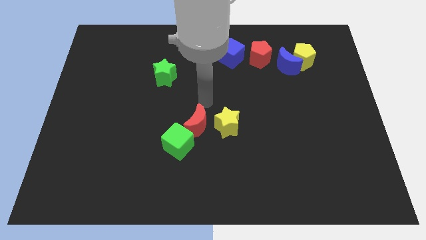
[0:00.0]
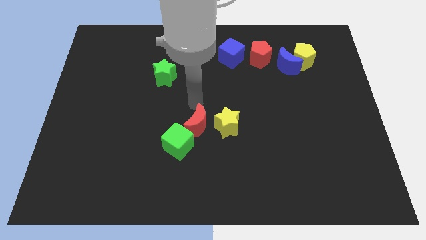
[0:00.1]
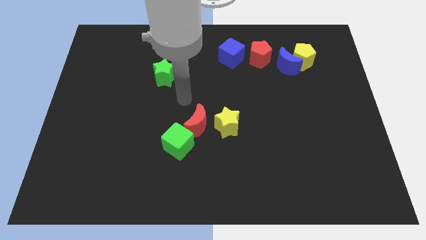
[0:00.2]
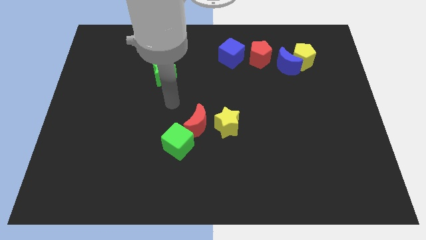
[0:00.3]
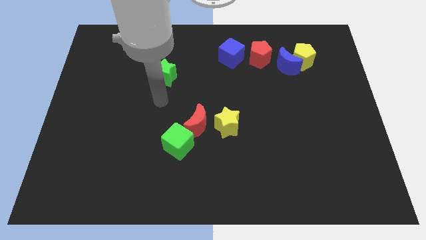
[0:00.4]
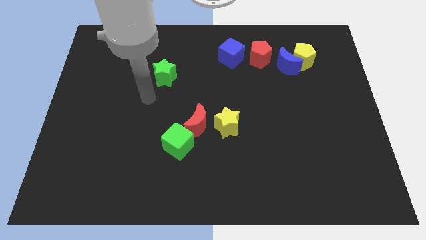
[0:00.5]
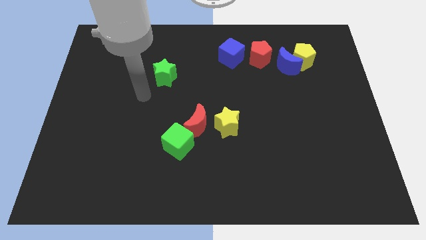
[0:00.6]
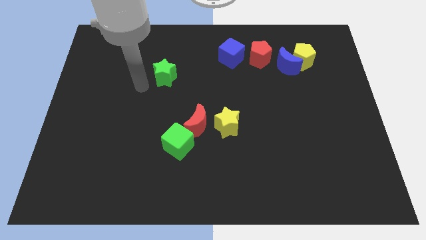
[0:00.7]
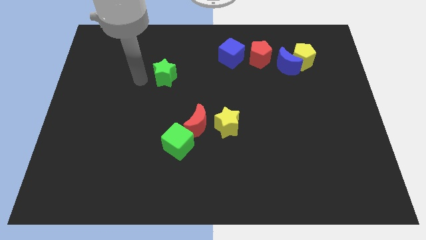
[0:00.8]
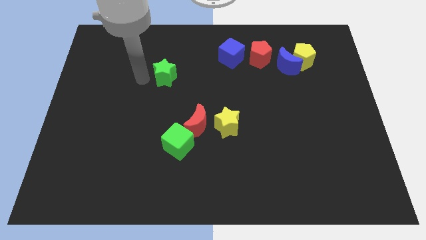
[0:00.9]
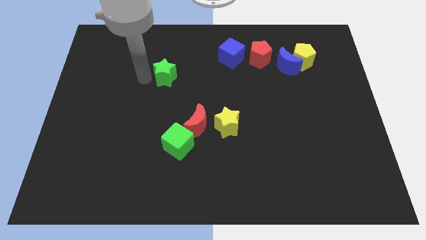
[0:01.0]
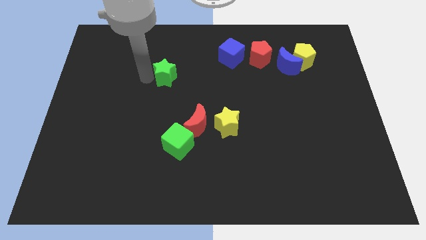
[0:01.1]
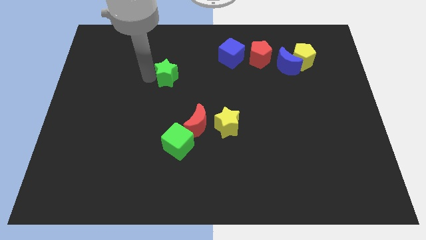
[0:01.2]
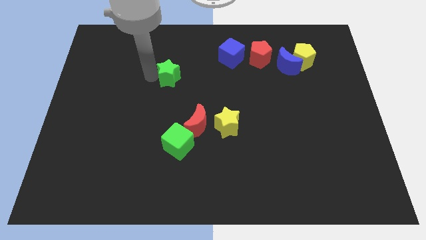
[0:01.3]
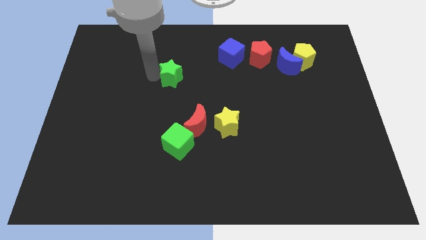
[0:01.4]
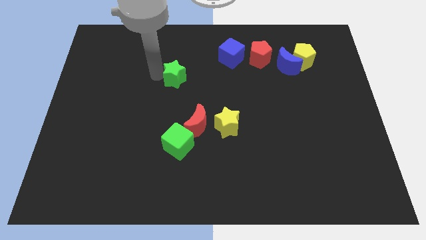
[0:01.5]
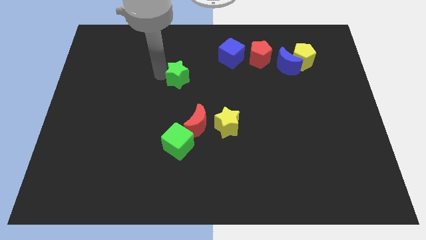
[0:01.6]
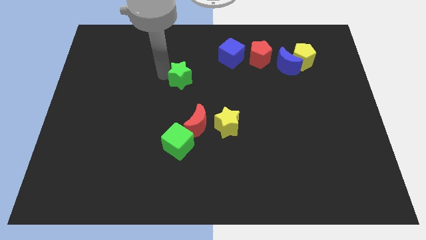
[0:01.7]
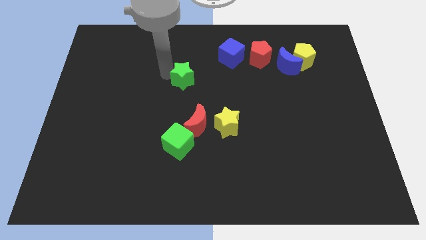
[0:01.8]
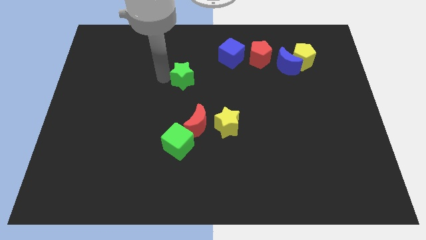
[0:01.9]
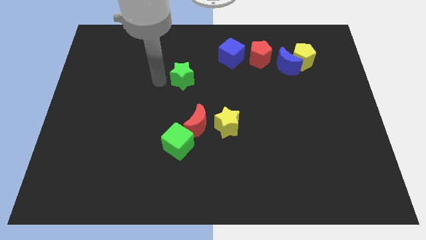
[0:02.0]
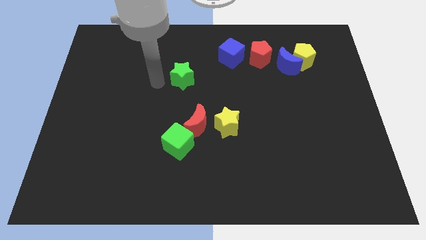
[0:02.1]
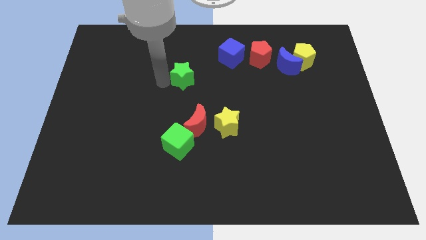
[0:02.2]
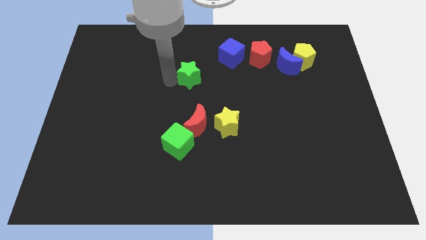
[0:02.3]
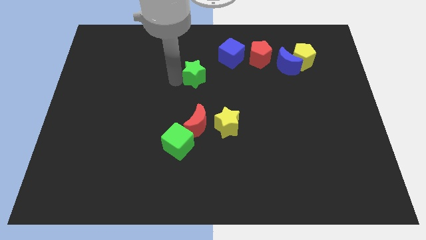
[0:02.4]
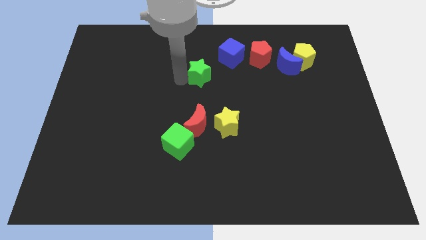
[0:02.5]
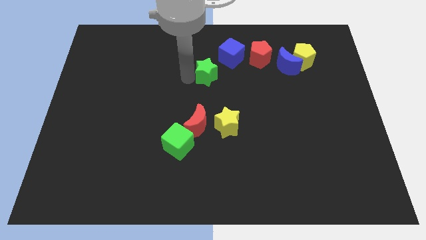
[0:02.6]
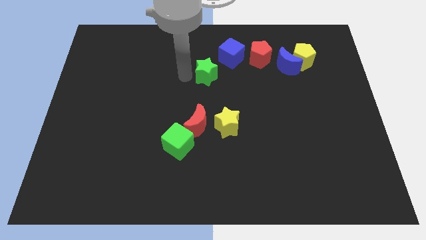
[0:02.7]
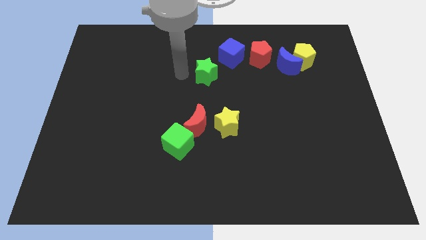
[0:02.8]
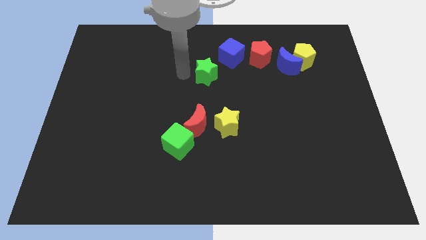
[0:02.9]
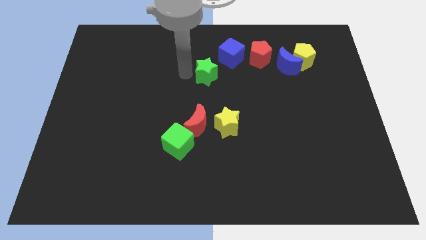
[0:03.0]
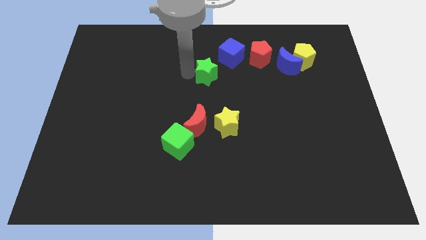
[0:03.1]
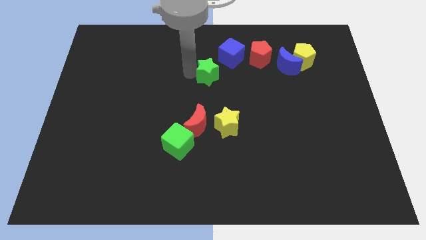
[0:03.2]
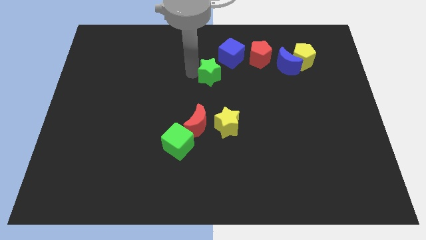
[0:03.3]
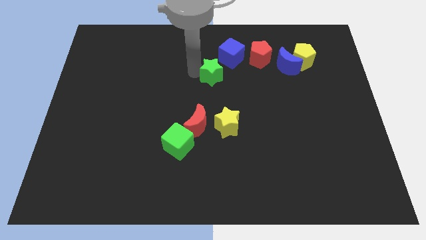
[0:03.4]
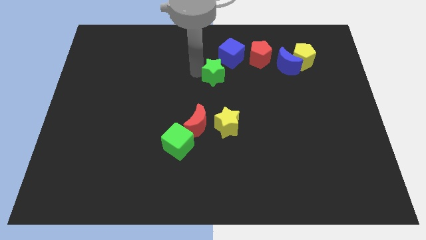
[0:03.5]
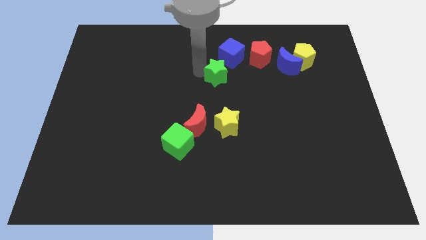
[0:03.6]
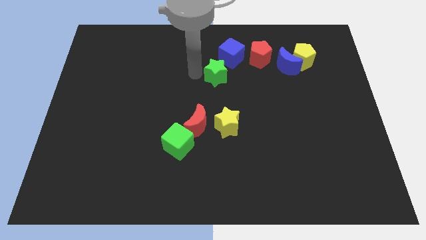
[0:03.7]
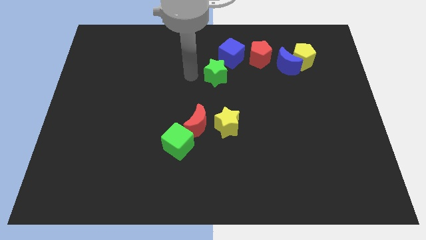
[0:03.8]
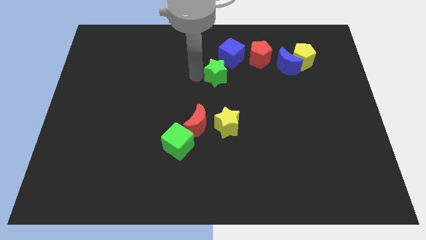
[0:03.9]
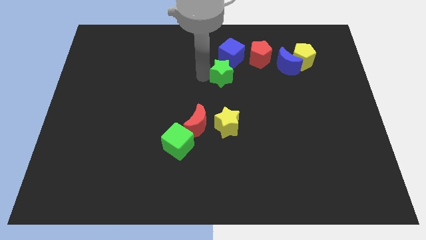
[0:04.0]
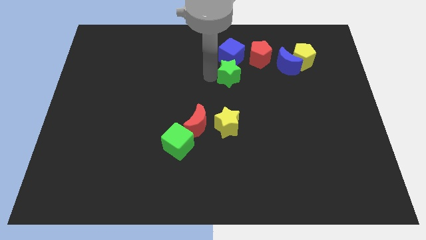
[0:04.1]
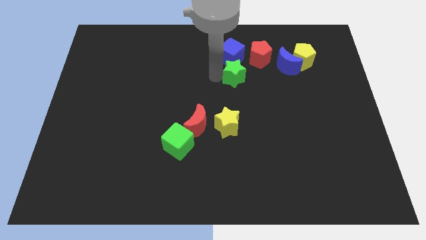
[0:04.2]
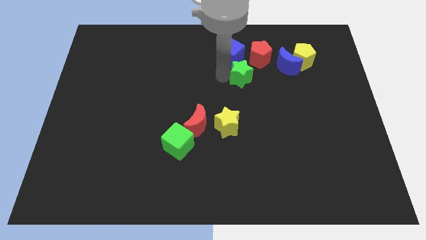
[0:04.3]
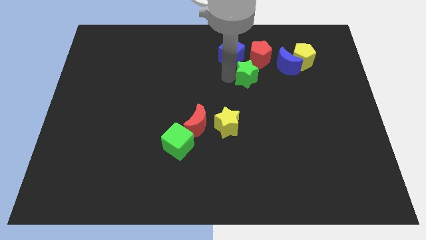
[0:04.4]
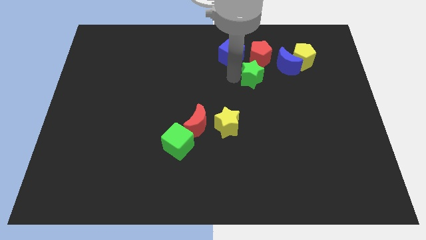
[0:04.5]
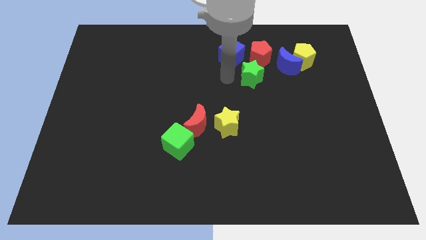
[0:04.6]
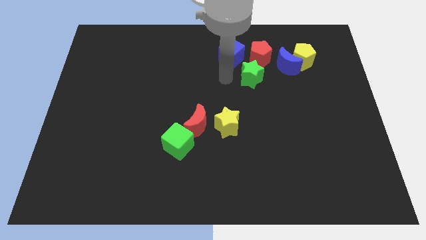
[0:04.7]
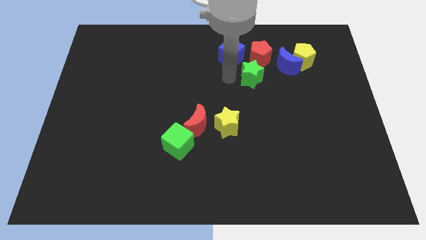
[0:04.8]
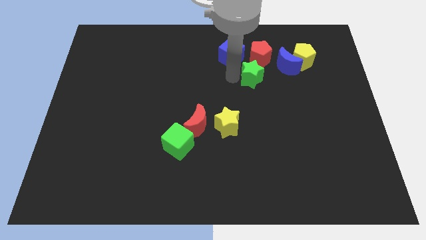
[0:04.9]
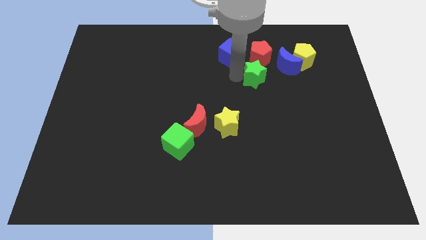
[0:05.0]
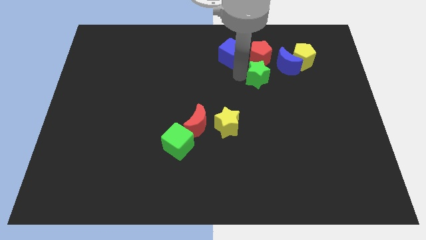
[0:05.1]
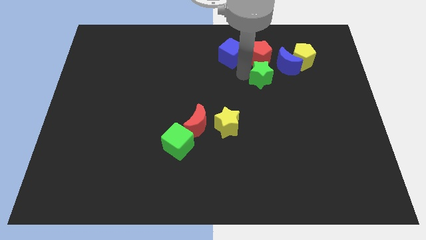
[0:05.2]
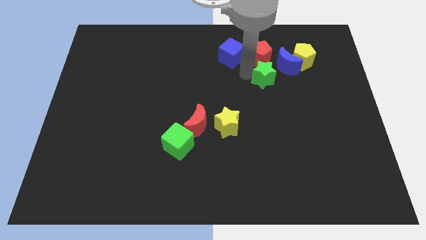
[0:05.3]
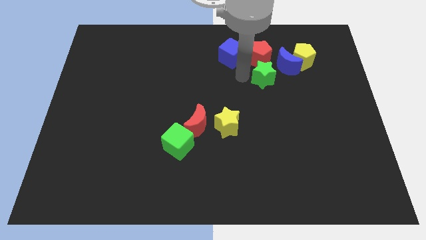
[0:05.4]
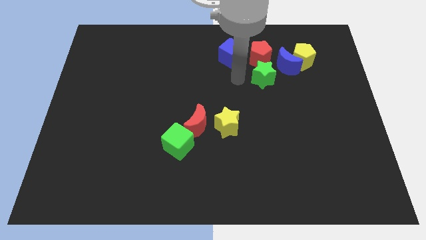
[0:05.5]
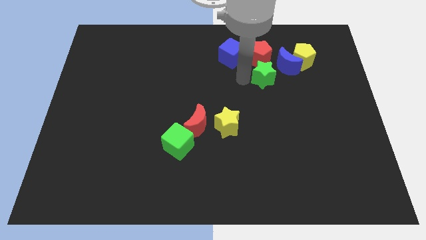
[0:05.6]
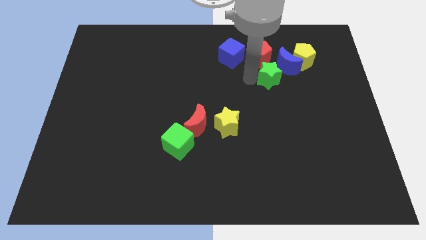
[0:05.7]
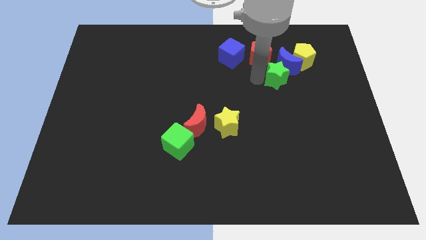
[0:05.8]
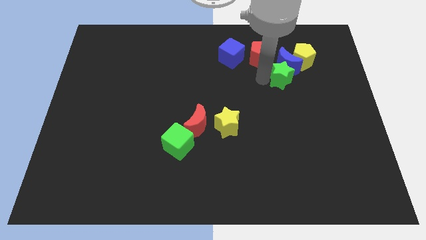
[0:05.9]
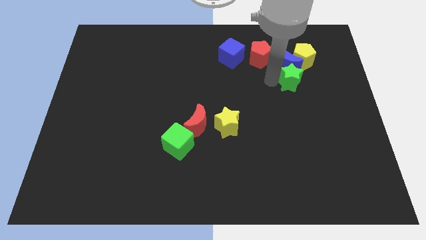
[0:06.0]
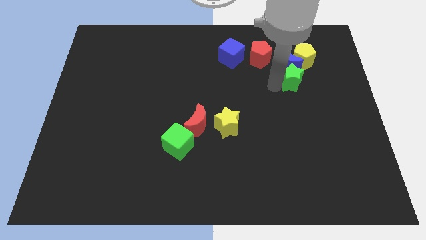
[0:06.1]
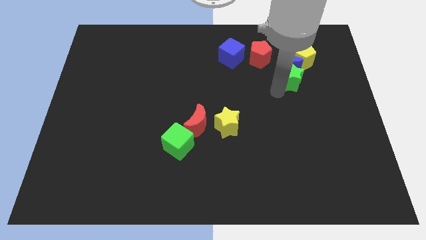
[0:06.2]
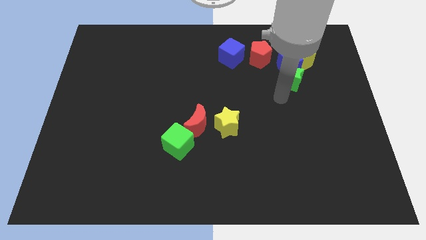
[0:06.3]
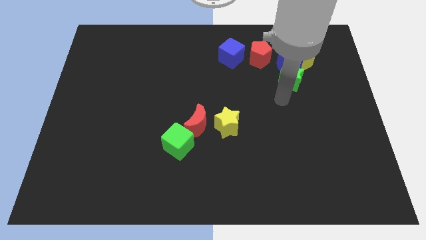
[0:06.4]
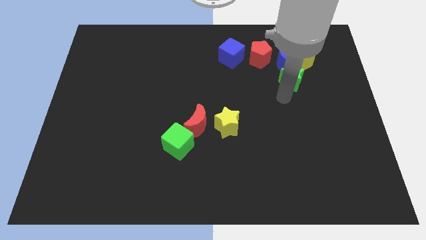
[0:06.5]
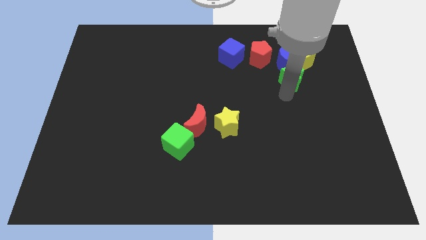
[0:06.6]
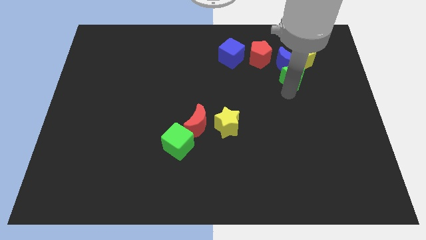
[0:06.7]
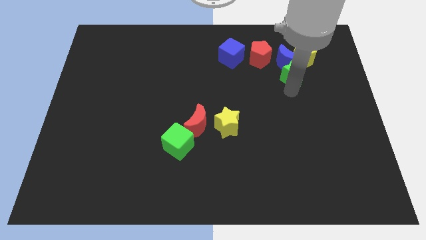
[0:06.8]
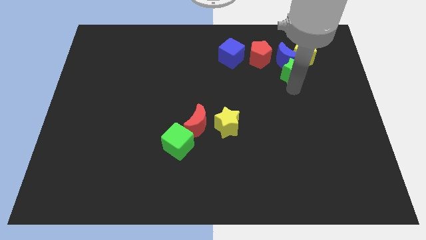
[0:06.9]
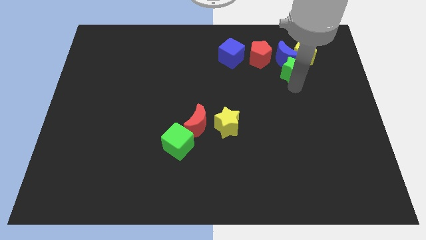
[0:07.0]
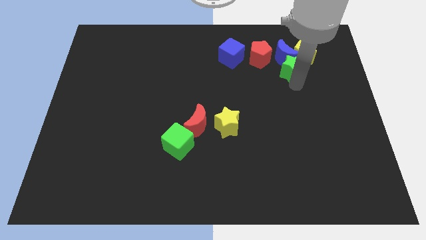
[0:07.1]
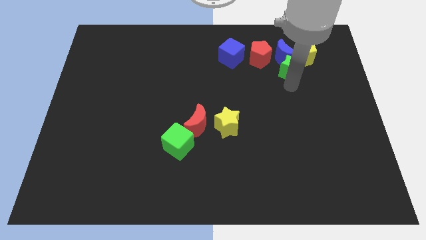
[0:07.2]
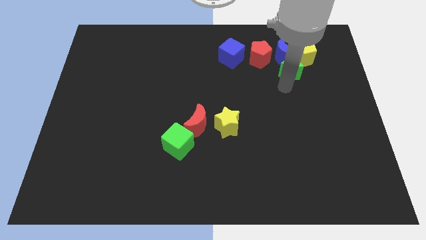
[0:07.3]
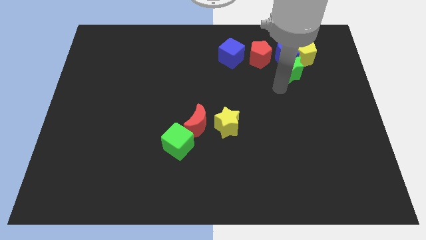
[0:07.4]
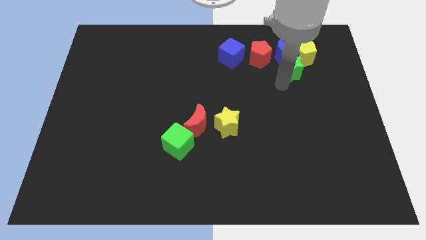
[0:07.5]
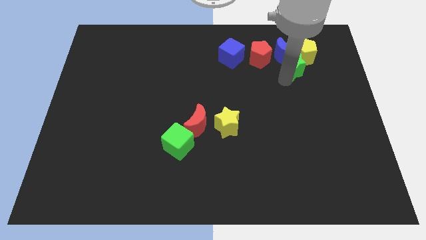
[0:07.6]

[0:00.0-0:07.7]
slide the green star close to the yellow pentagon
